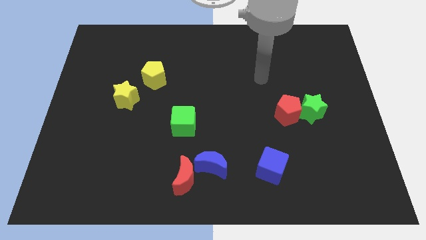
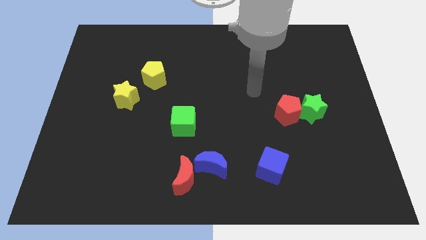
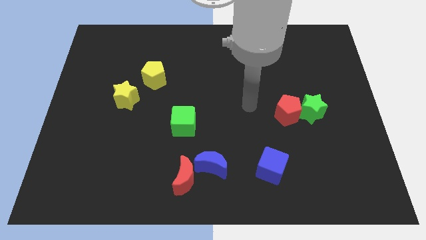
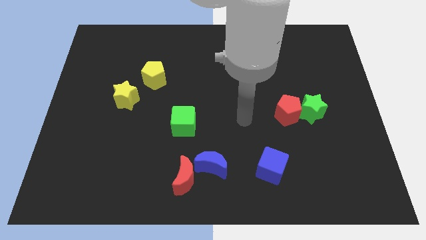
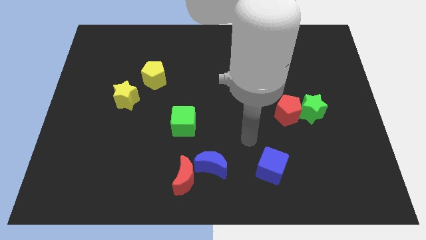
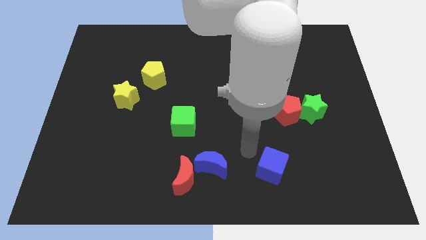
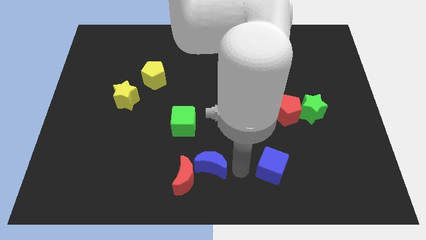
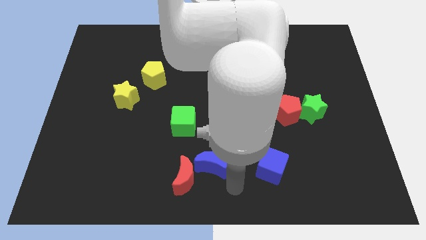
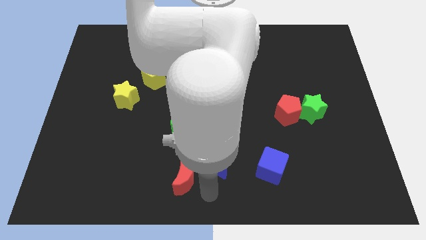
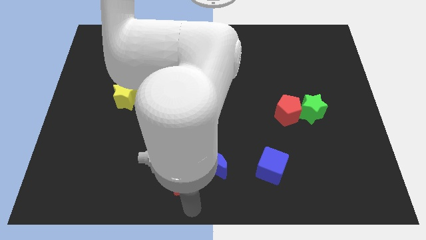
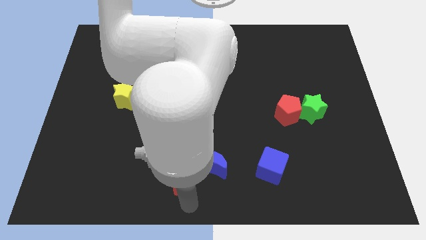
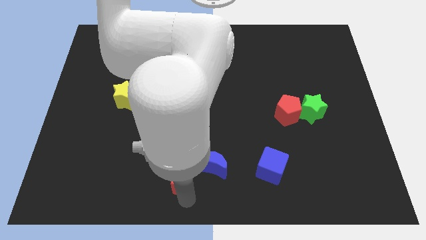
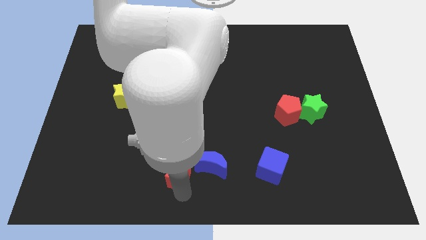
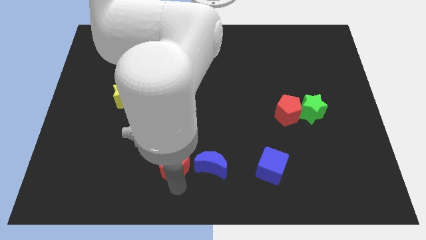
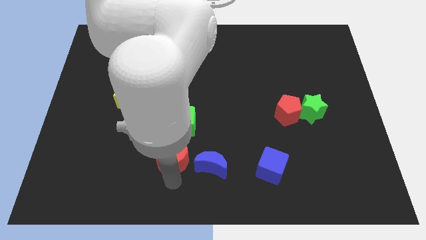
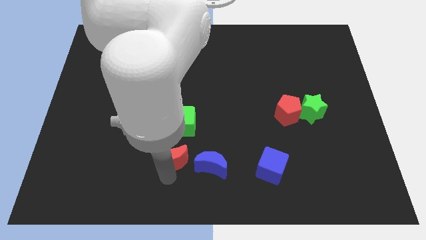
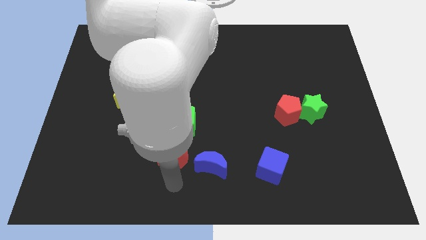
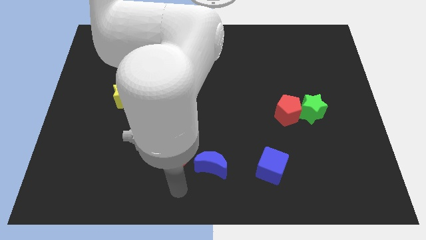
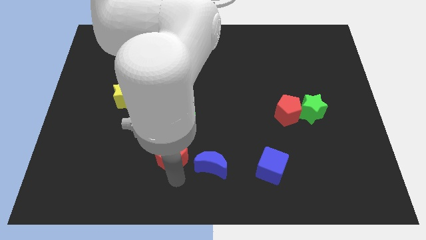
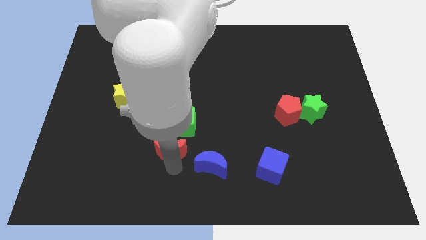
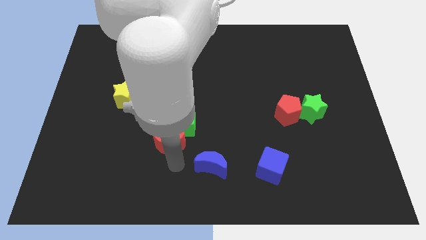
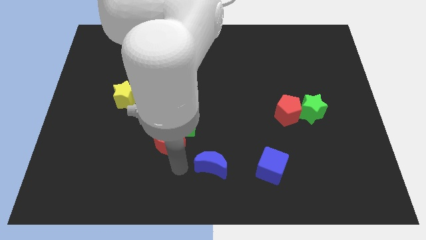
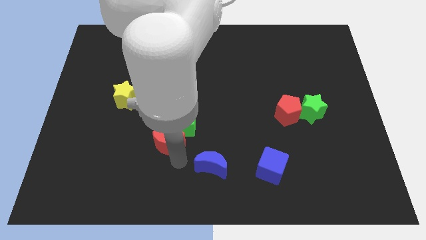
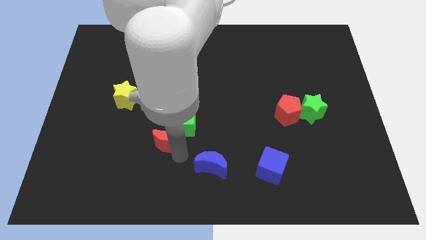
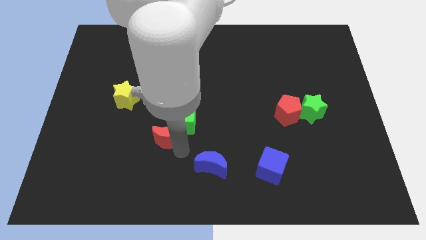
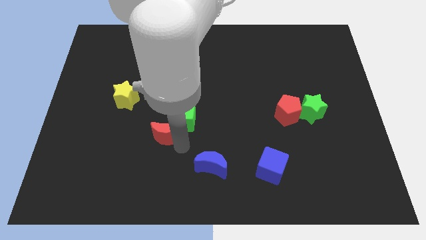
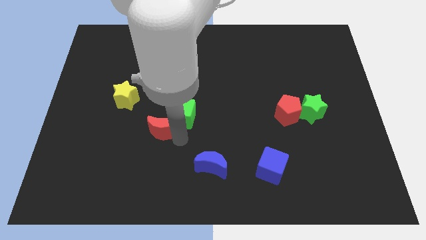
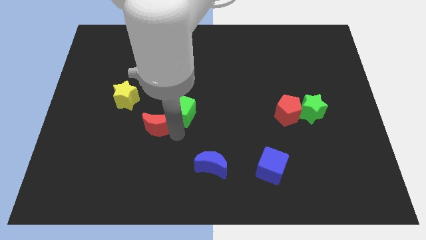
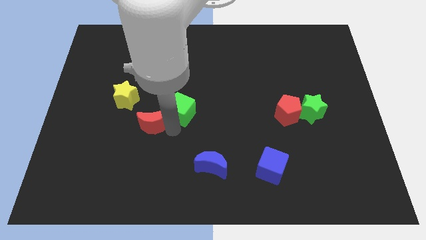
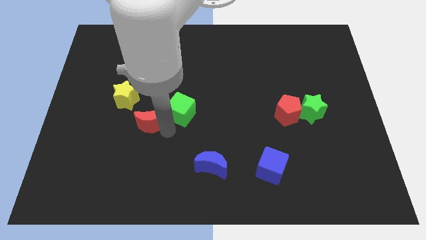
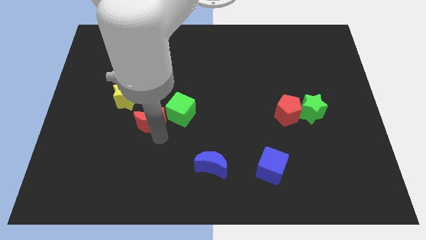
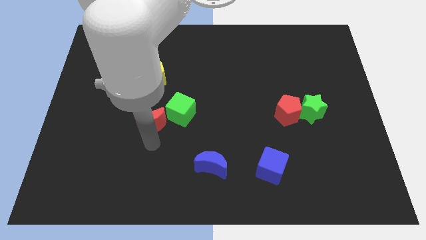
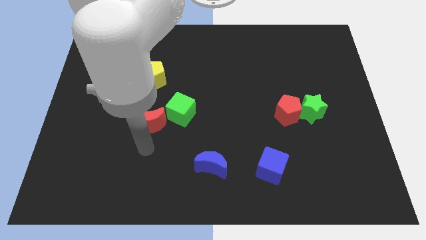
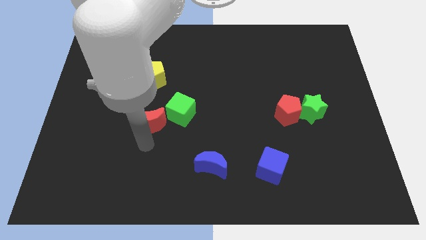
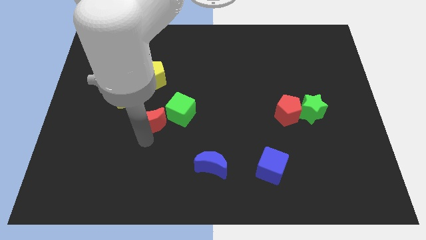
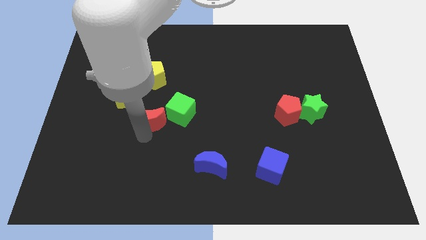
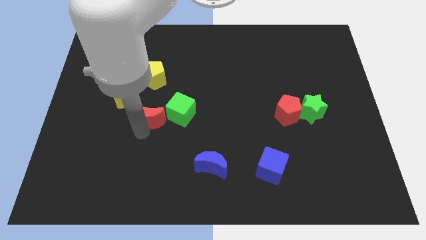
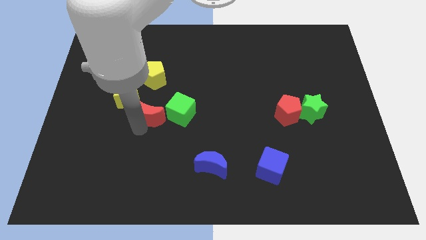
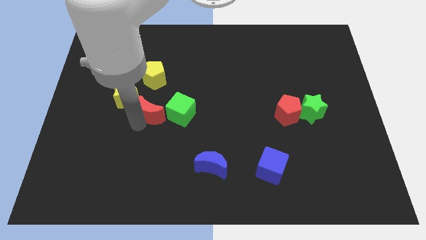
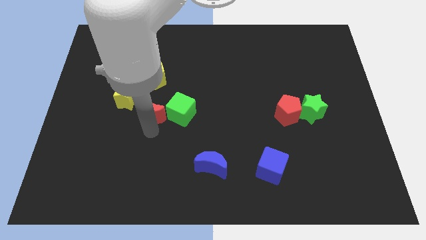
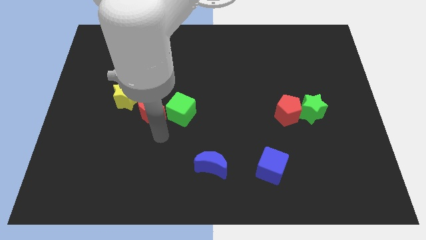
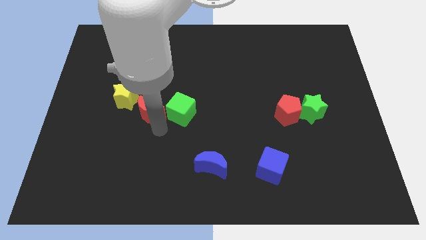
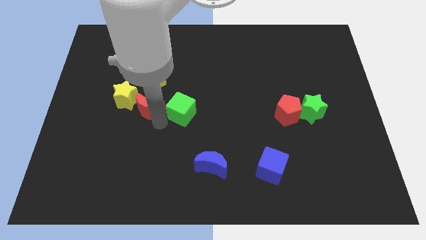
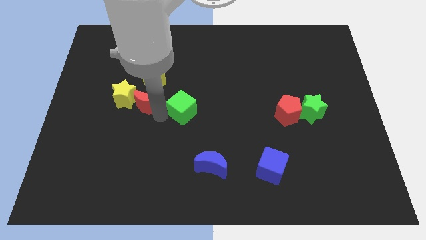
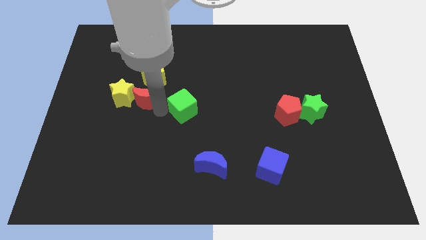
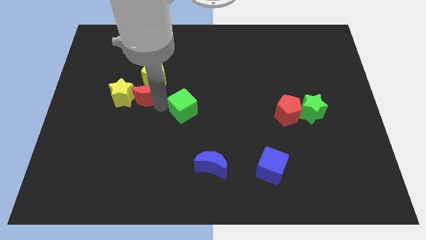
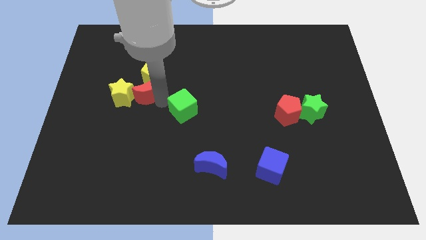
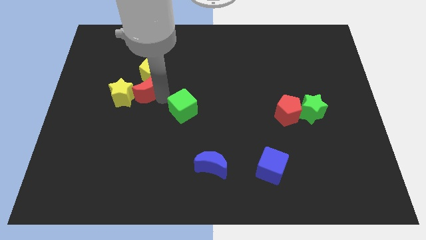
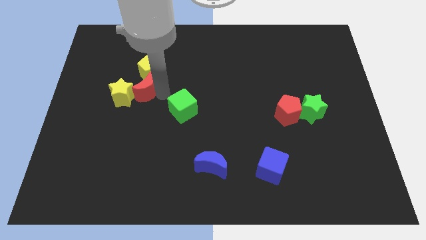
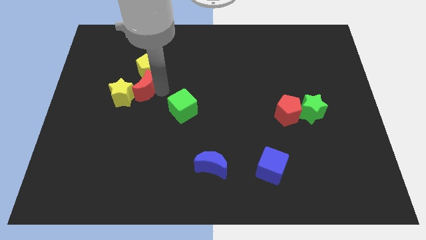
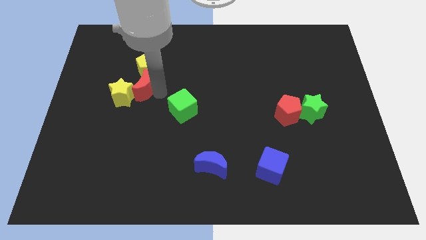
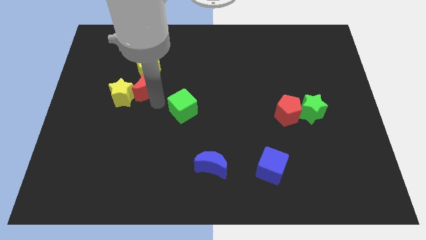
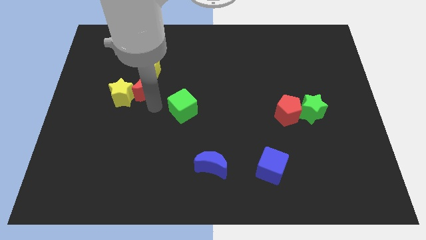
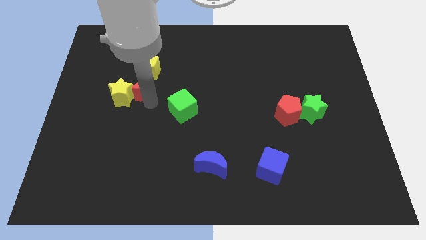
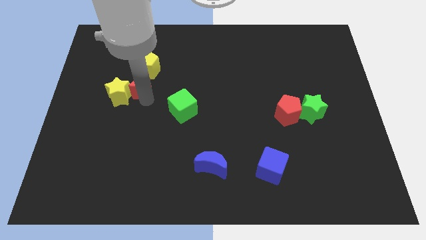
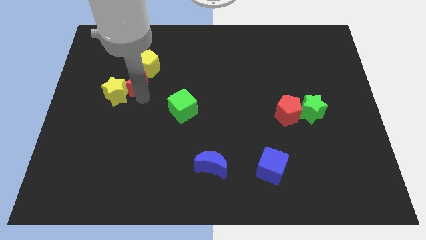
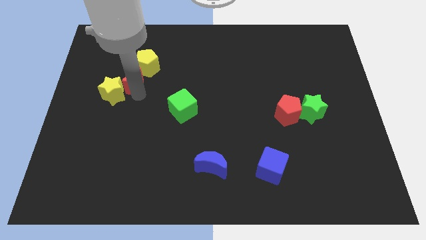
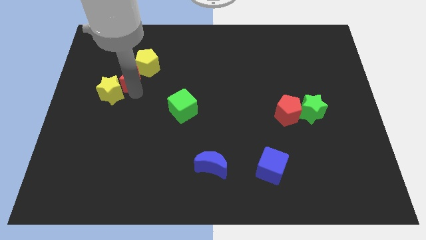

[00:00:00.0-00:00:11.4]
put the red moon to the top of the yellow star

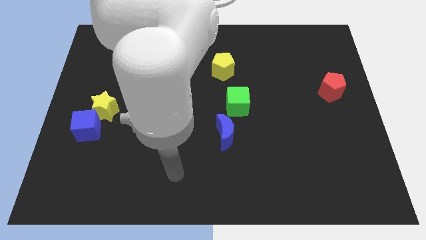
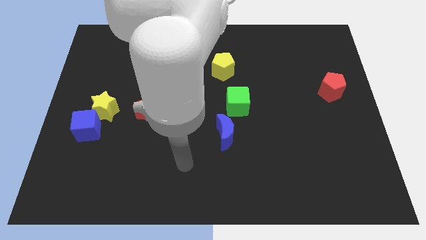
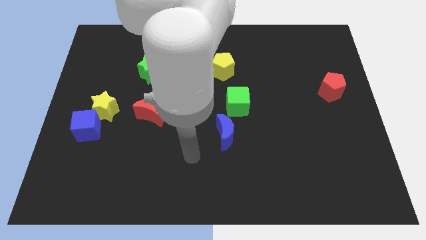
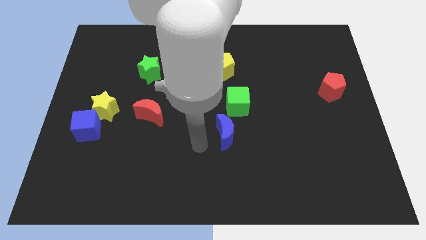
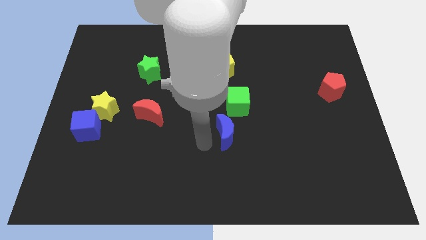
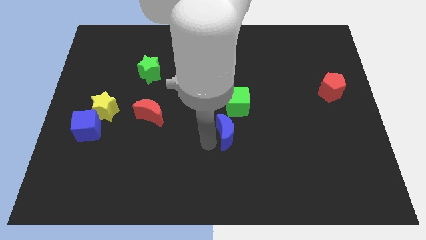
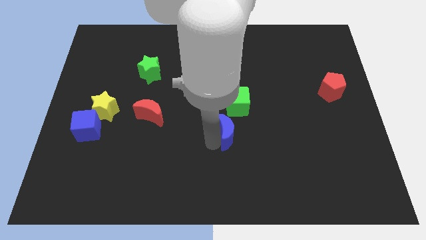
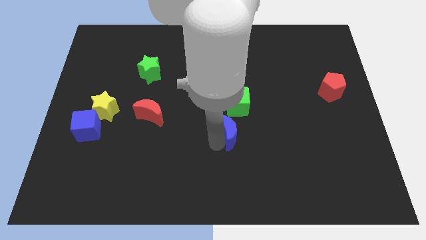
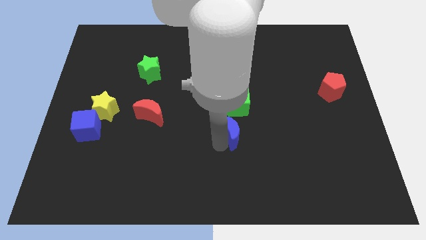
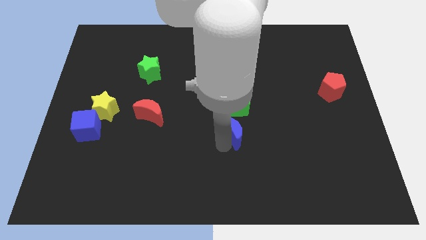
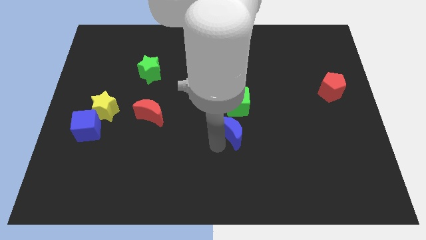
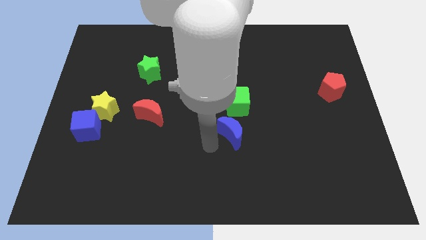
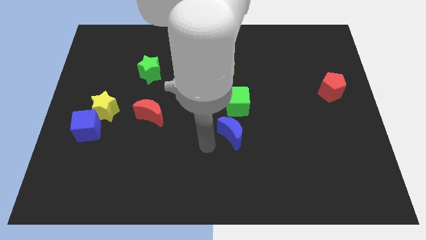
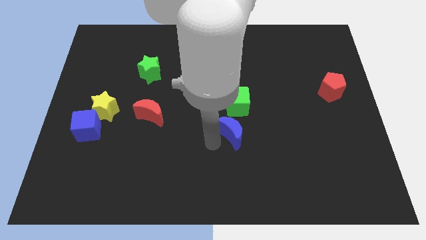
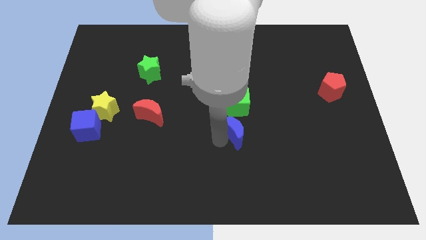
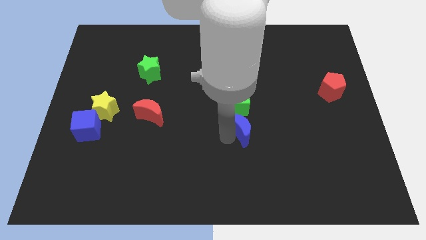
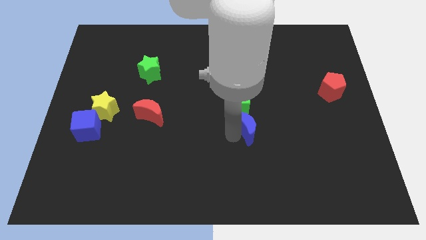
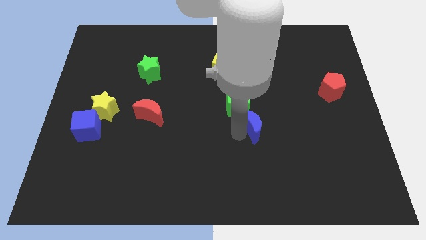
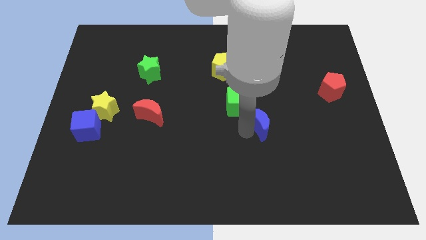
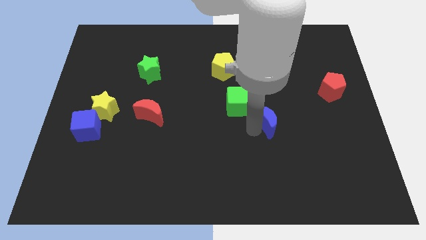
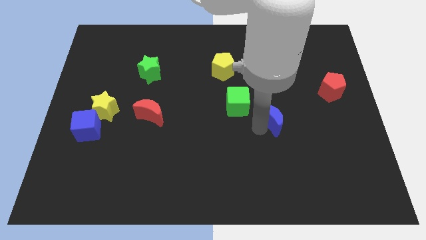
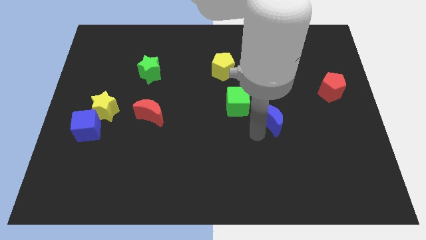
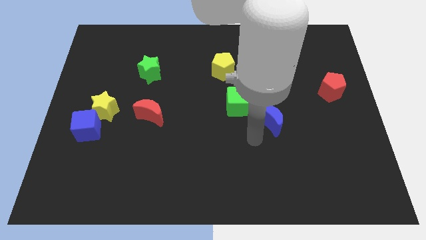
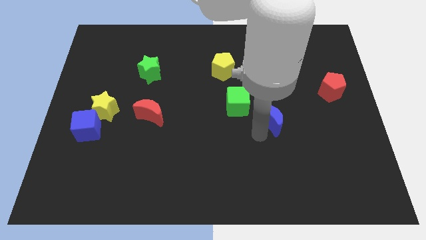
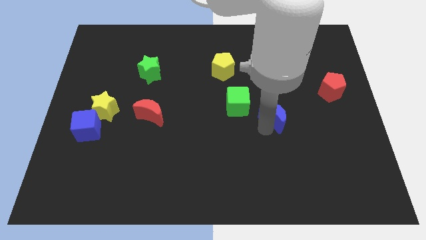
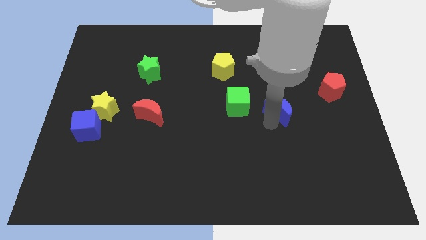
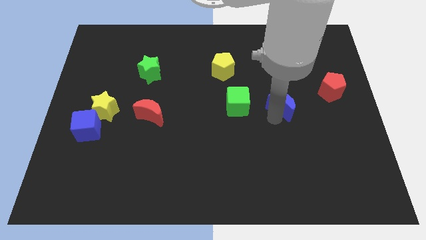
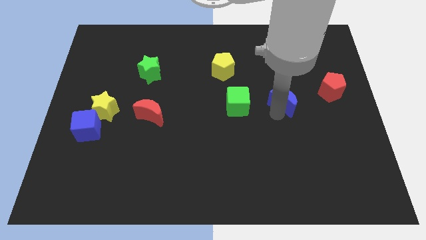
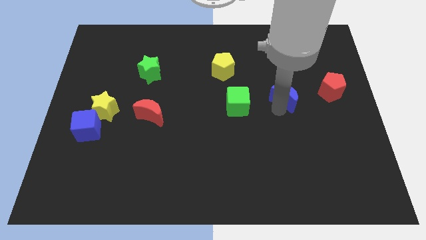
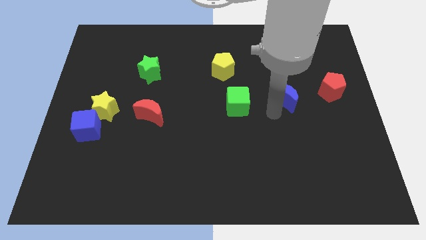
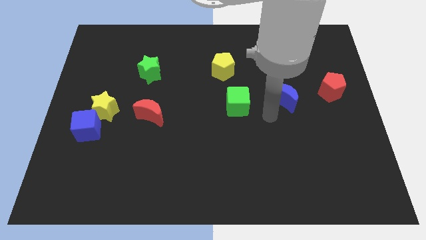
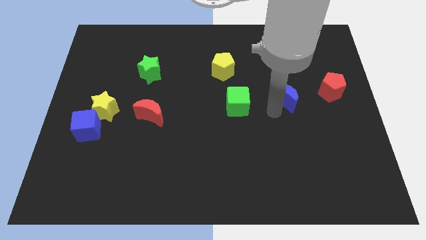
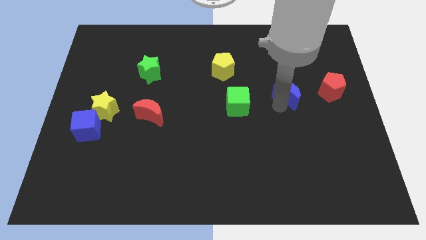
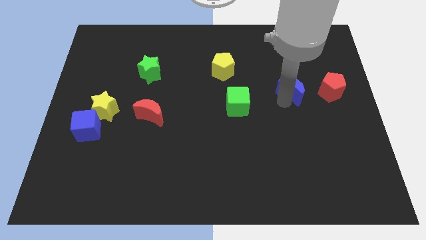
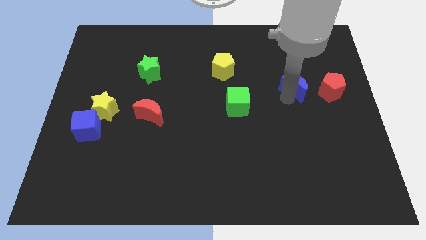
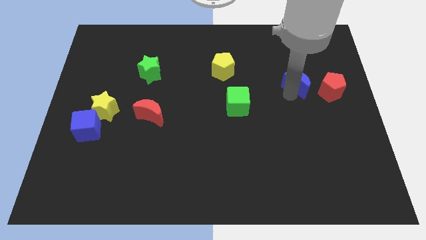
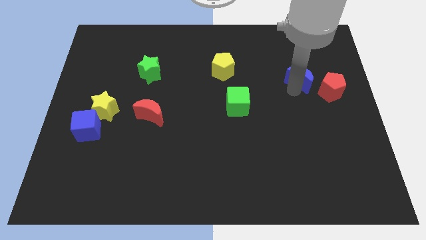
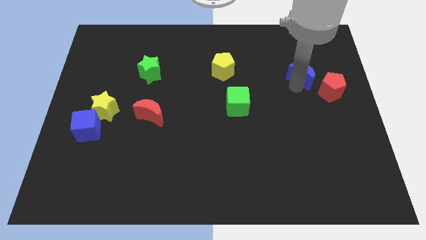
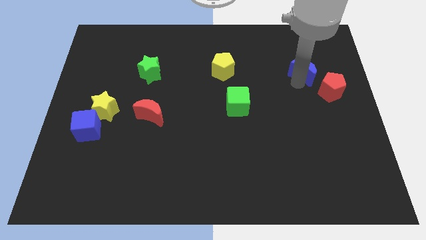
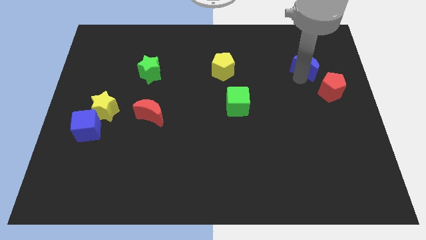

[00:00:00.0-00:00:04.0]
move the blue moon to the top side of the red pentagon
